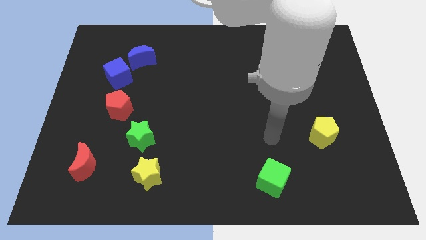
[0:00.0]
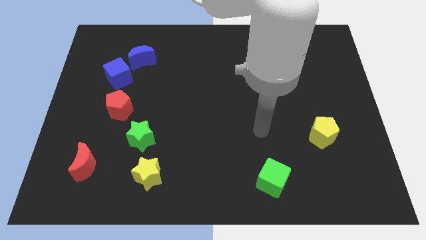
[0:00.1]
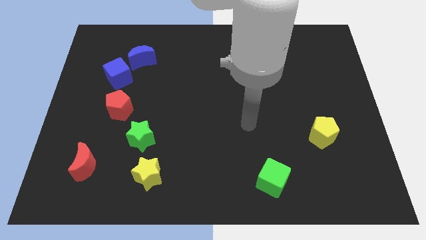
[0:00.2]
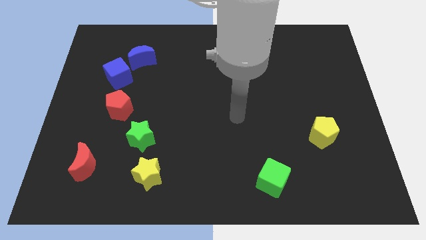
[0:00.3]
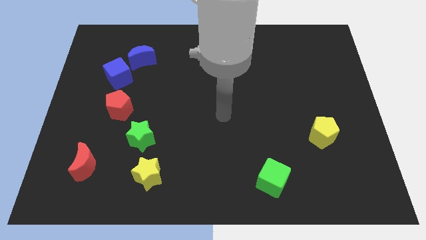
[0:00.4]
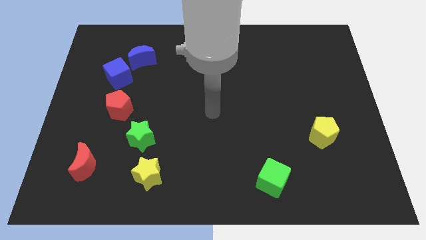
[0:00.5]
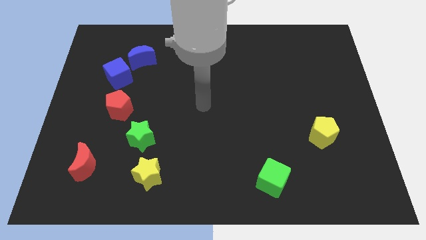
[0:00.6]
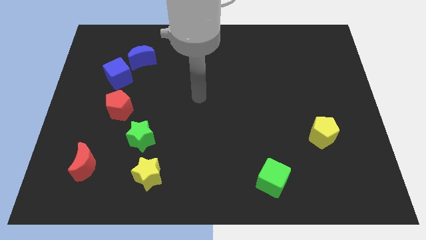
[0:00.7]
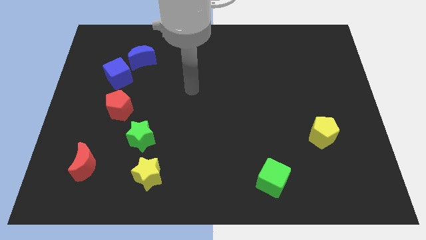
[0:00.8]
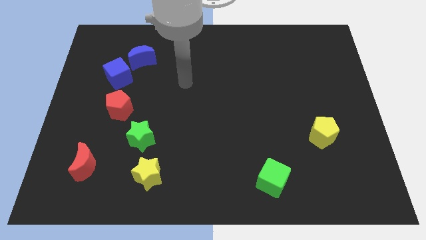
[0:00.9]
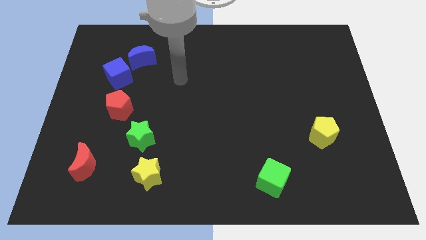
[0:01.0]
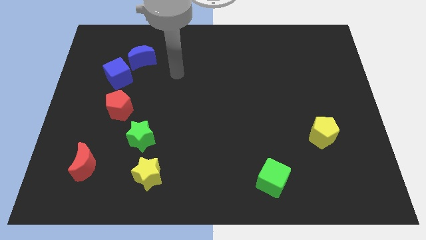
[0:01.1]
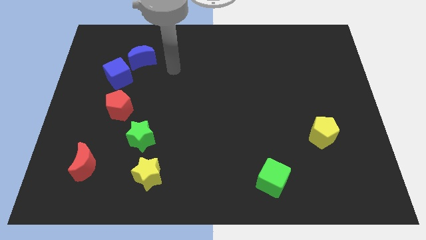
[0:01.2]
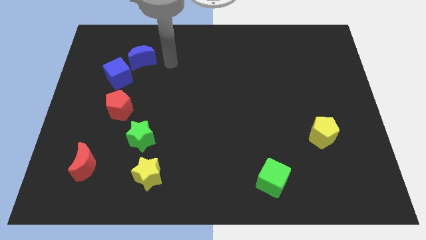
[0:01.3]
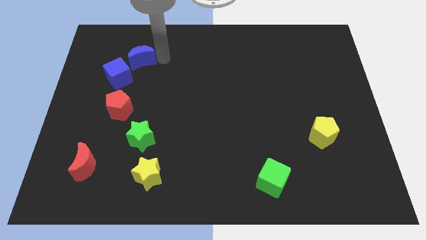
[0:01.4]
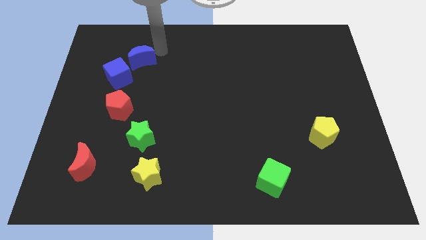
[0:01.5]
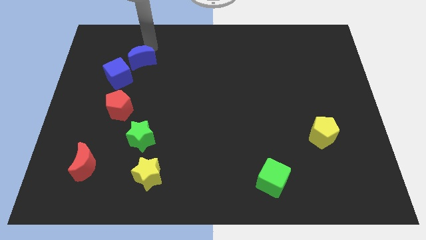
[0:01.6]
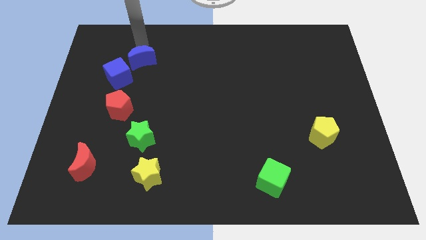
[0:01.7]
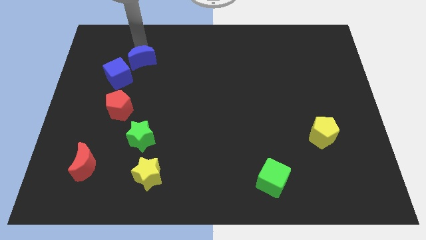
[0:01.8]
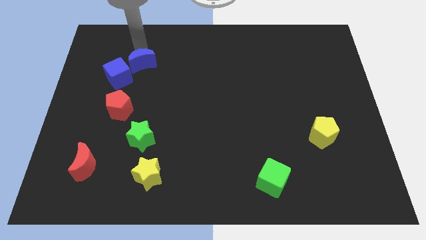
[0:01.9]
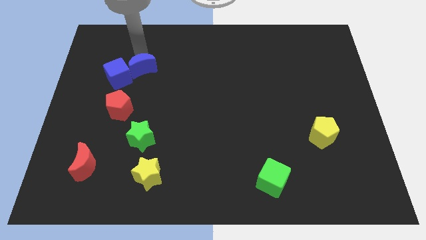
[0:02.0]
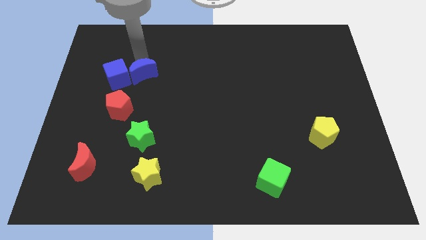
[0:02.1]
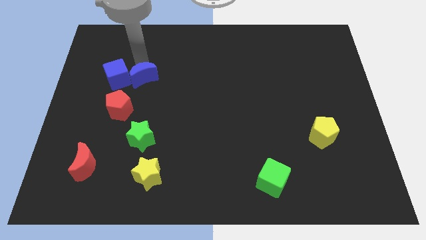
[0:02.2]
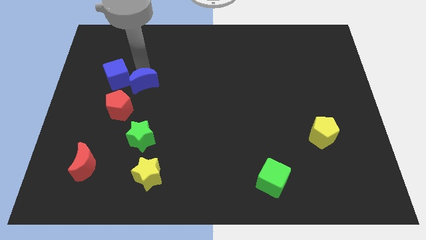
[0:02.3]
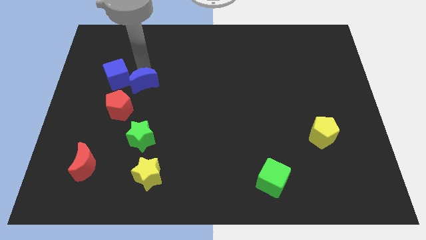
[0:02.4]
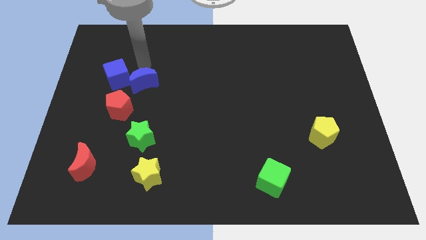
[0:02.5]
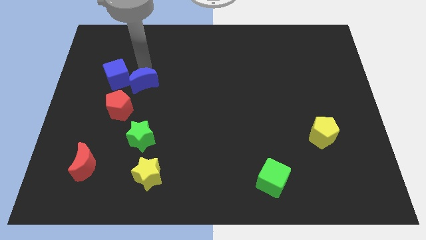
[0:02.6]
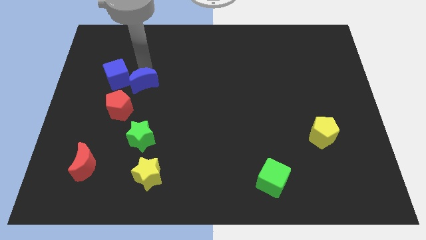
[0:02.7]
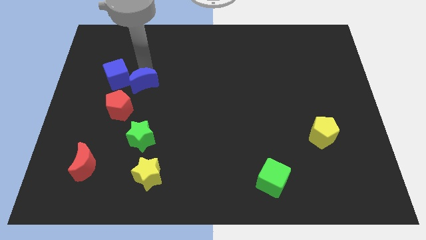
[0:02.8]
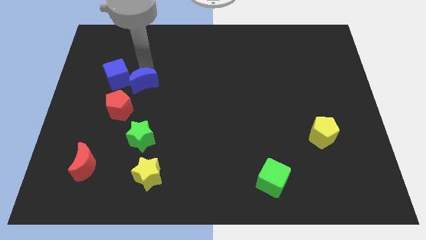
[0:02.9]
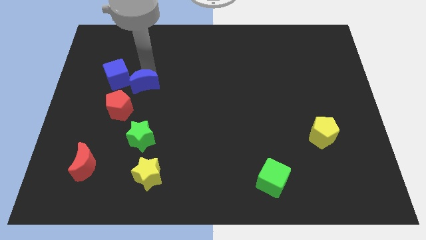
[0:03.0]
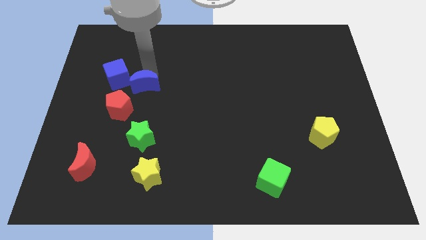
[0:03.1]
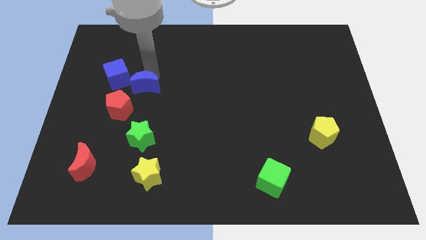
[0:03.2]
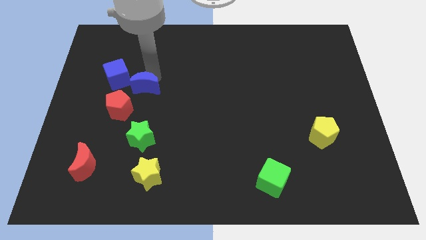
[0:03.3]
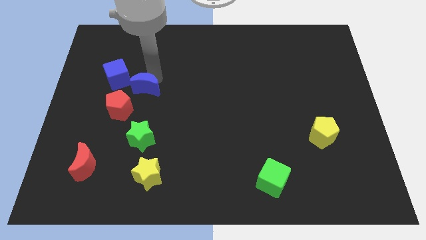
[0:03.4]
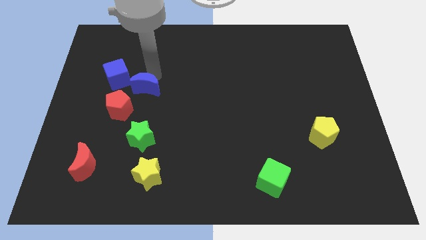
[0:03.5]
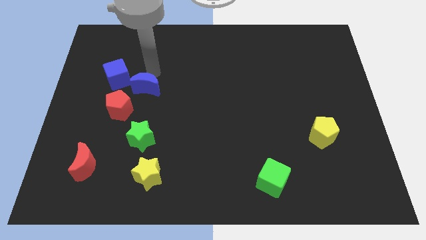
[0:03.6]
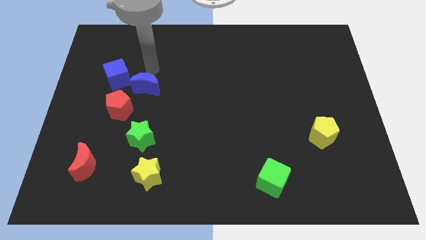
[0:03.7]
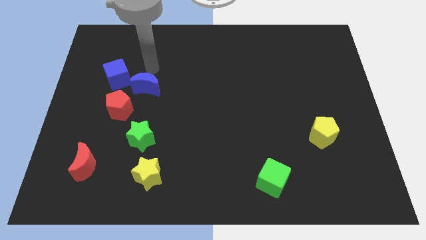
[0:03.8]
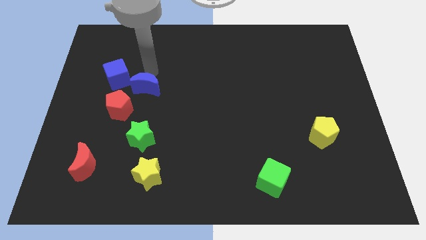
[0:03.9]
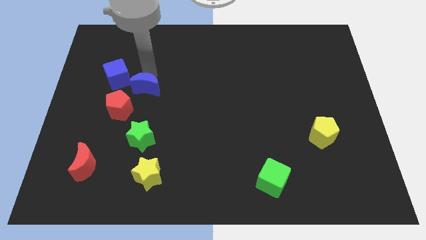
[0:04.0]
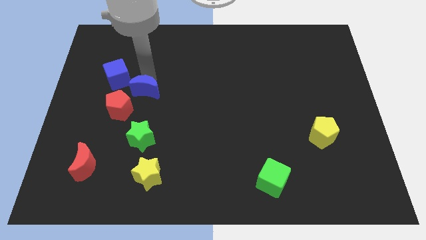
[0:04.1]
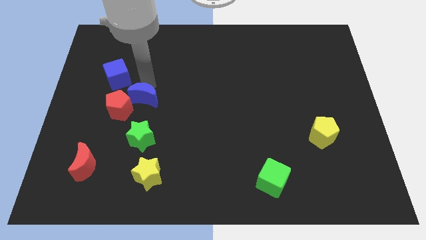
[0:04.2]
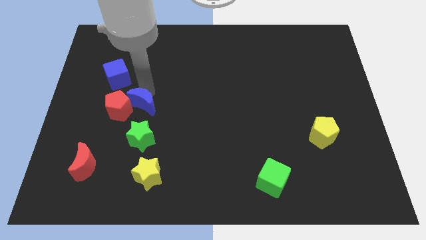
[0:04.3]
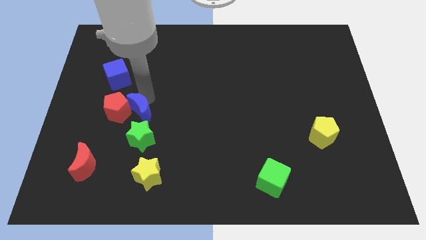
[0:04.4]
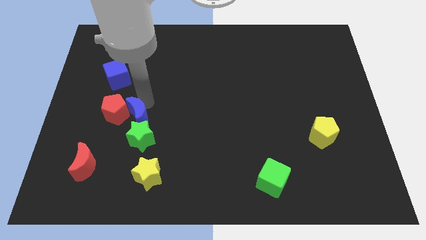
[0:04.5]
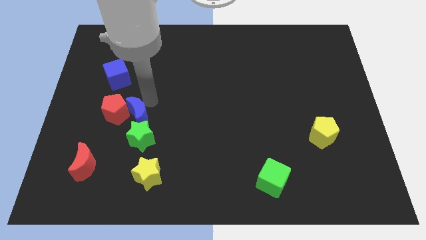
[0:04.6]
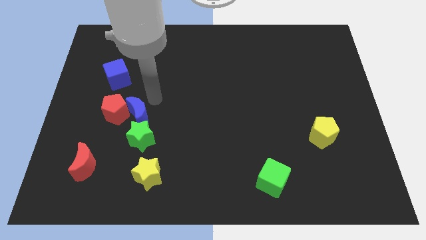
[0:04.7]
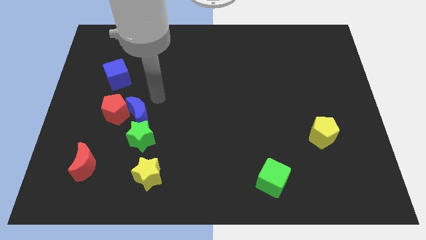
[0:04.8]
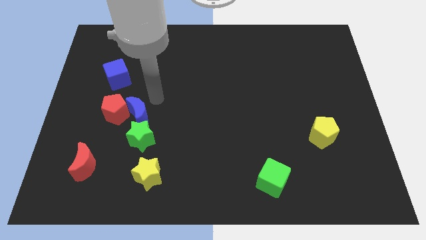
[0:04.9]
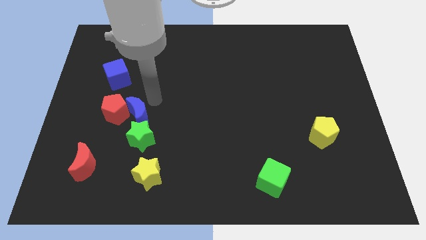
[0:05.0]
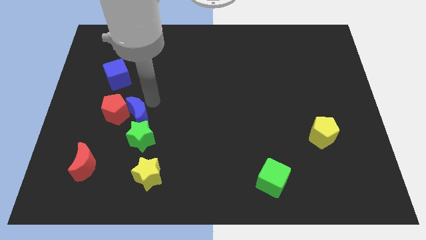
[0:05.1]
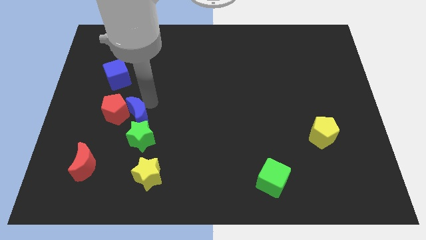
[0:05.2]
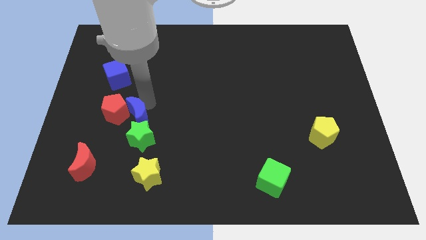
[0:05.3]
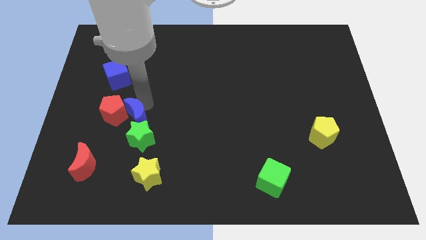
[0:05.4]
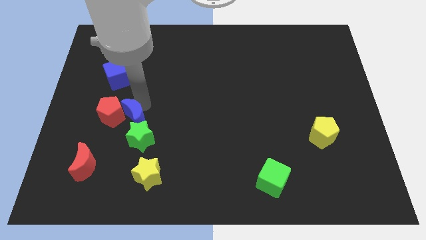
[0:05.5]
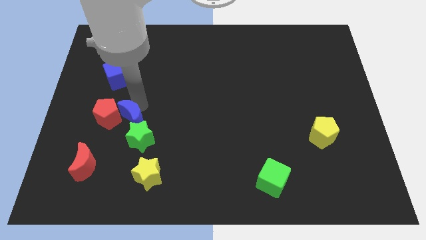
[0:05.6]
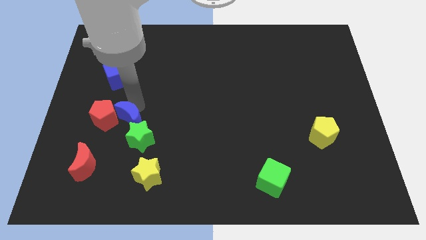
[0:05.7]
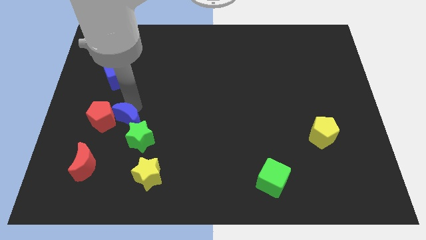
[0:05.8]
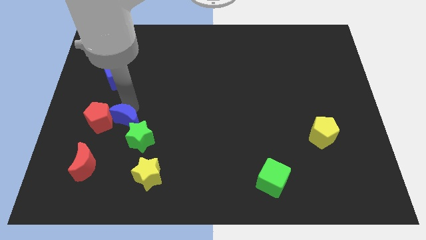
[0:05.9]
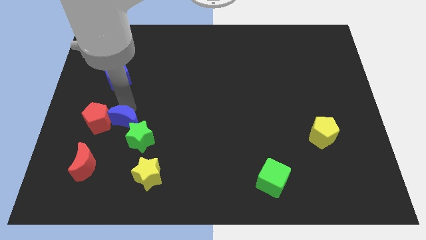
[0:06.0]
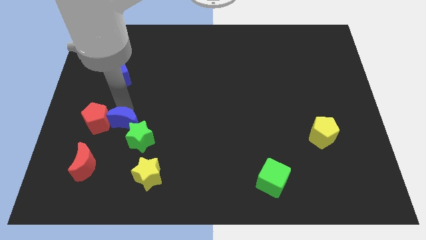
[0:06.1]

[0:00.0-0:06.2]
push the blue moon downwards

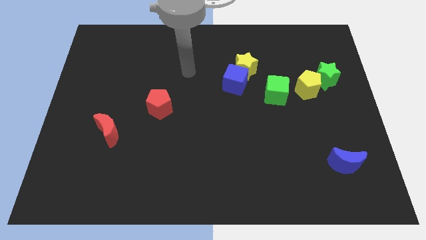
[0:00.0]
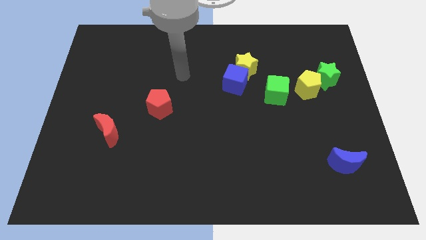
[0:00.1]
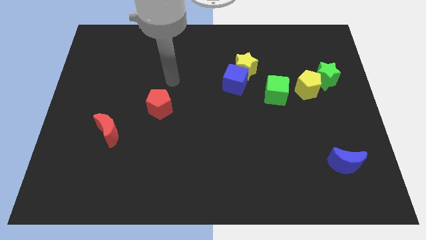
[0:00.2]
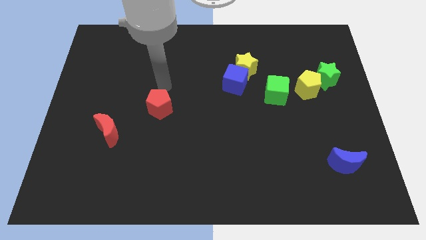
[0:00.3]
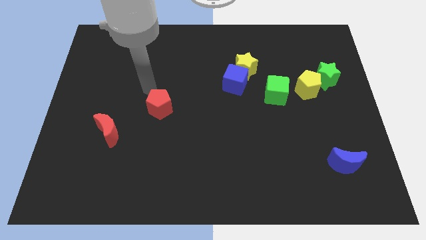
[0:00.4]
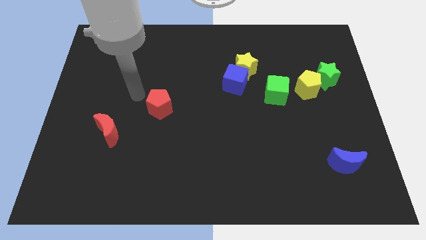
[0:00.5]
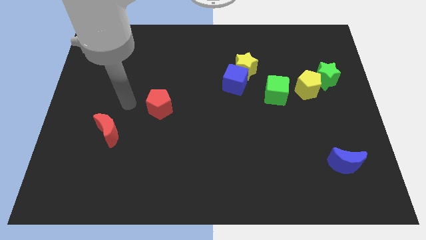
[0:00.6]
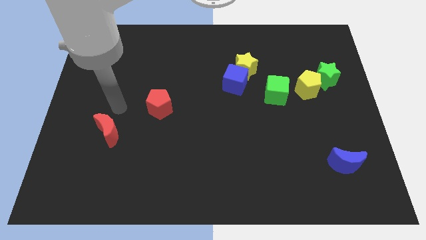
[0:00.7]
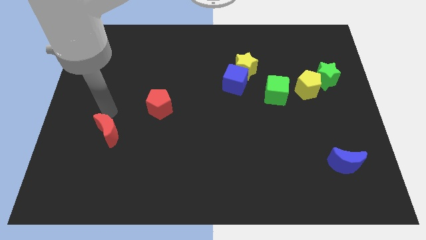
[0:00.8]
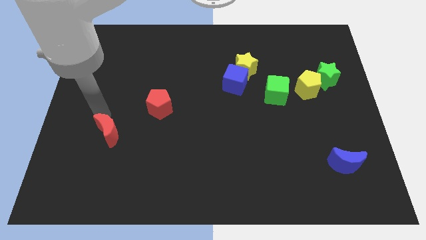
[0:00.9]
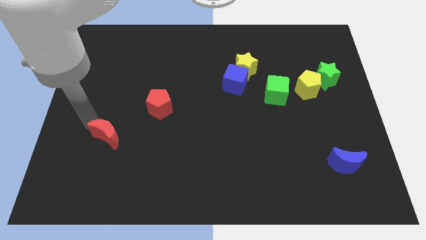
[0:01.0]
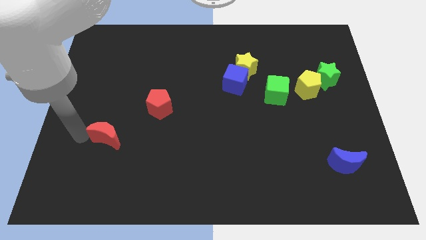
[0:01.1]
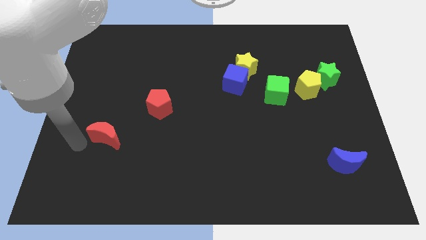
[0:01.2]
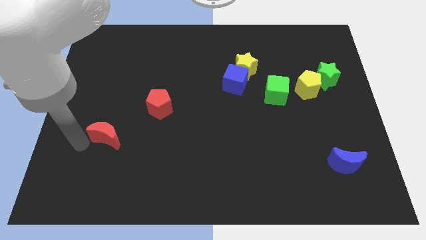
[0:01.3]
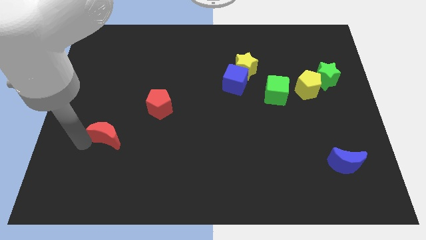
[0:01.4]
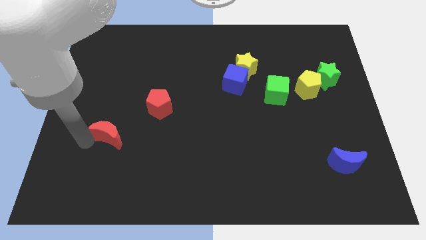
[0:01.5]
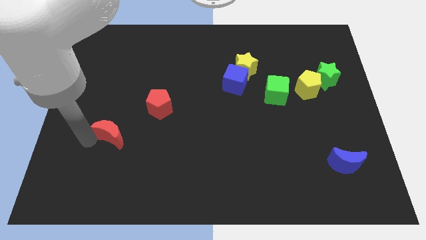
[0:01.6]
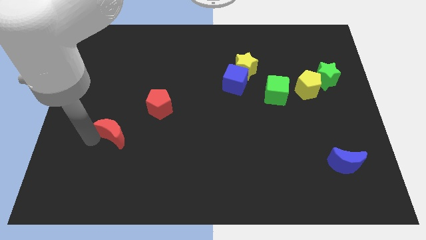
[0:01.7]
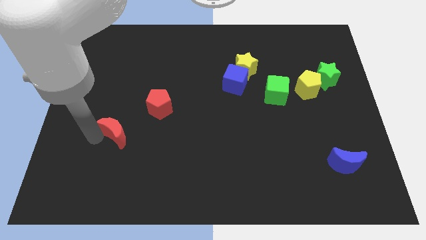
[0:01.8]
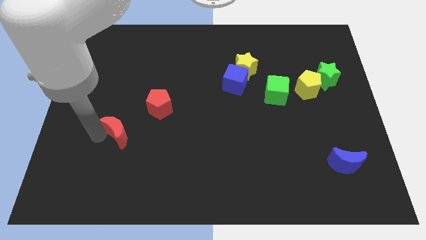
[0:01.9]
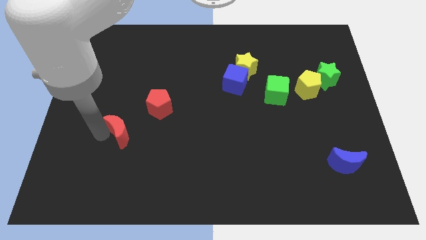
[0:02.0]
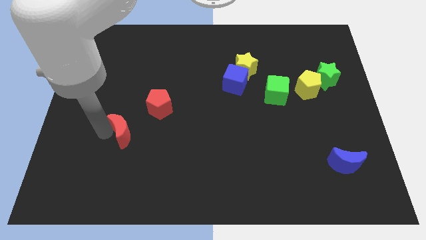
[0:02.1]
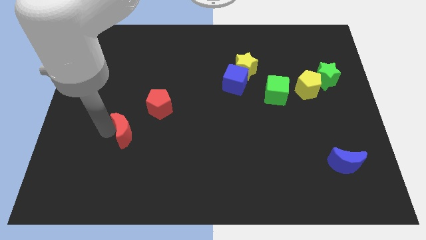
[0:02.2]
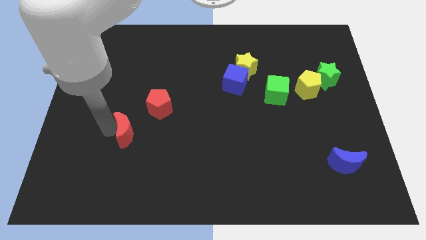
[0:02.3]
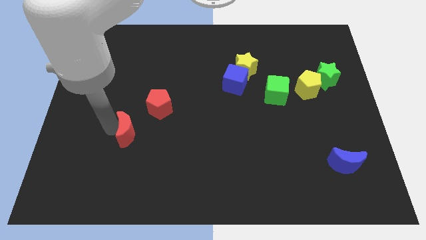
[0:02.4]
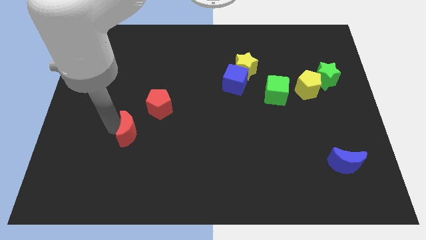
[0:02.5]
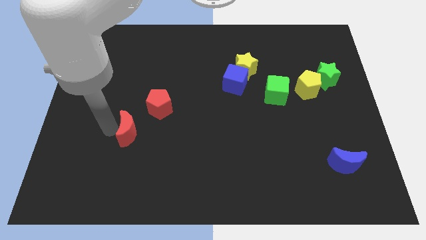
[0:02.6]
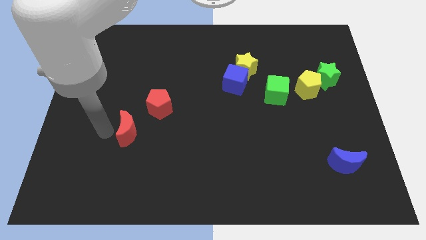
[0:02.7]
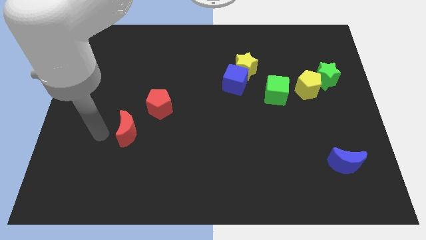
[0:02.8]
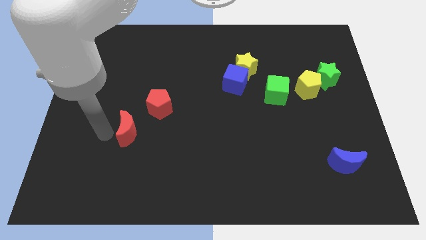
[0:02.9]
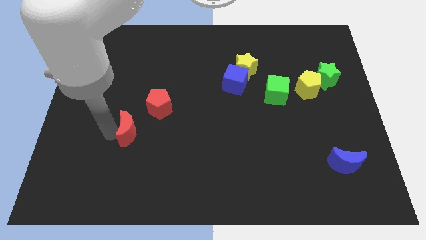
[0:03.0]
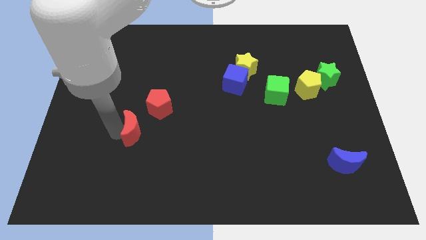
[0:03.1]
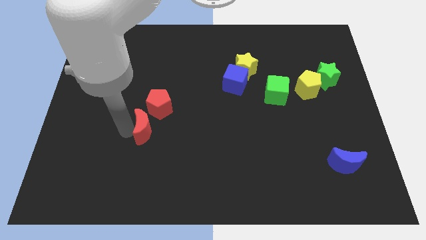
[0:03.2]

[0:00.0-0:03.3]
move the red moon a little right
